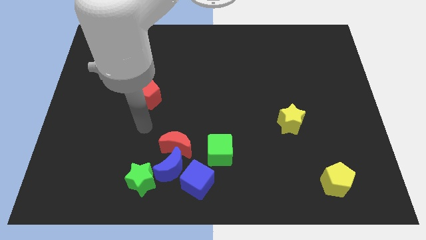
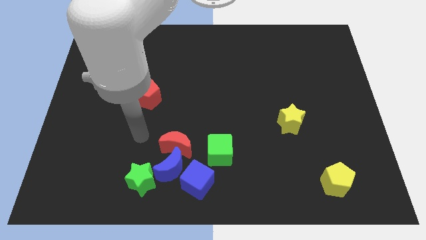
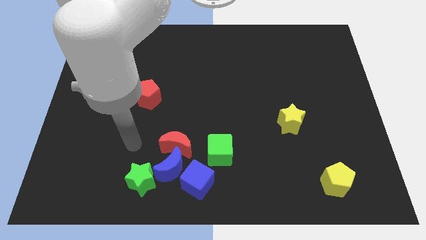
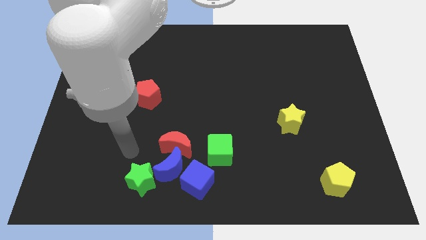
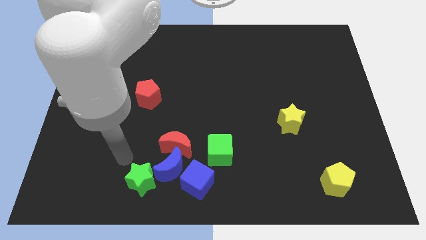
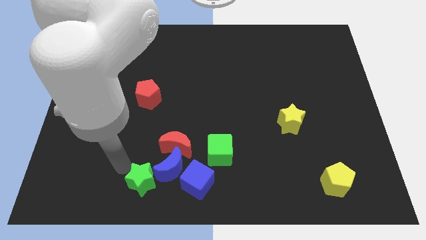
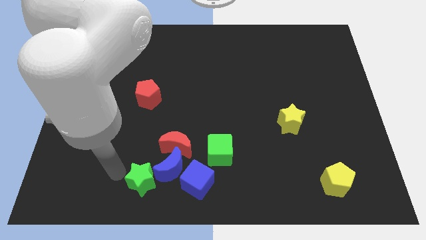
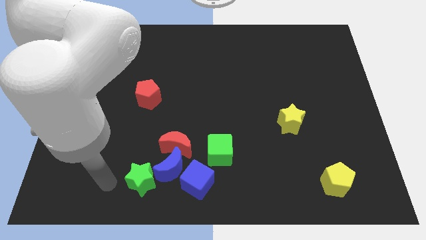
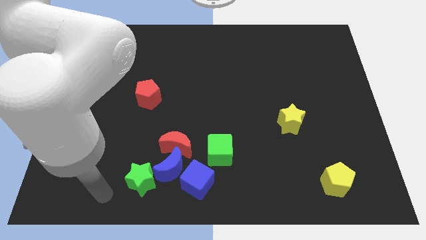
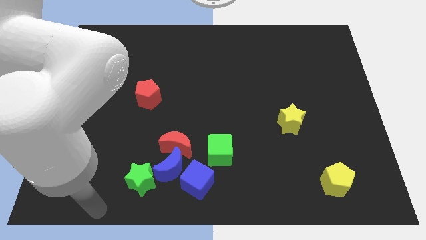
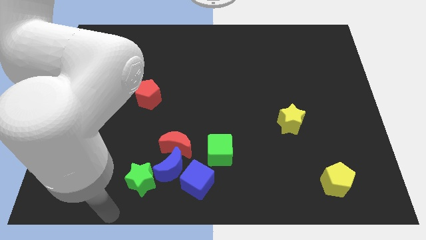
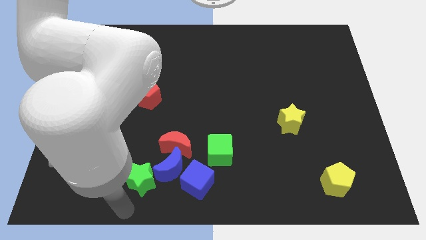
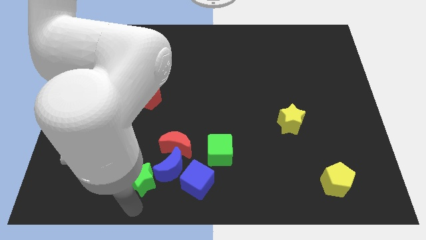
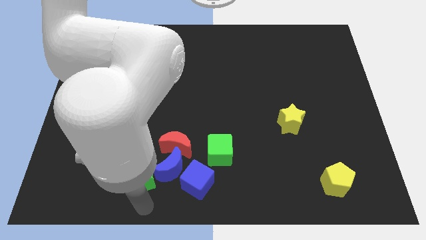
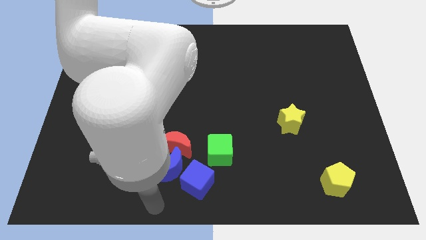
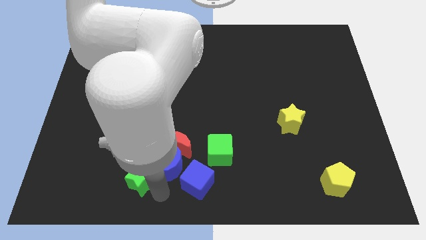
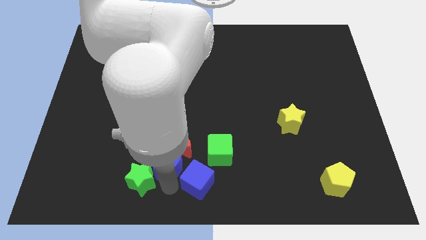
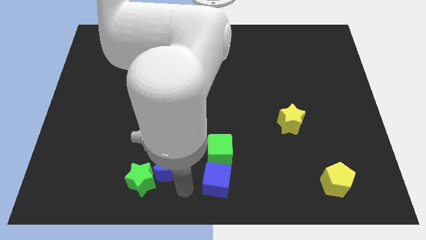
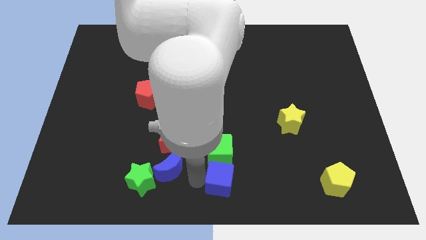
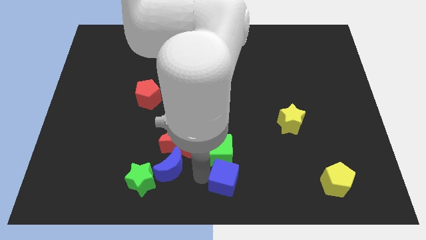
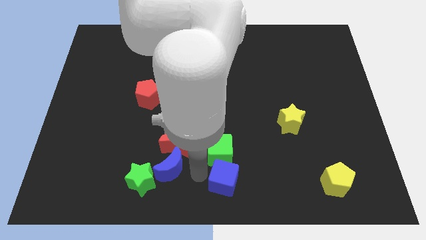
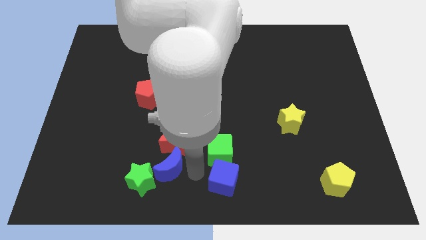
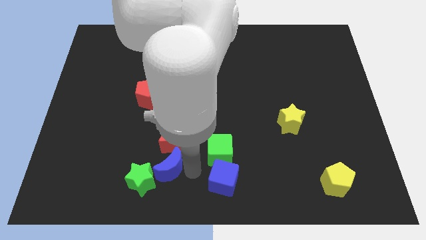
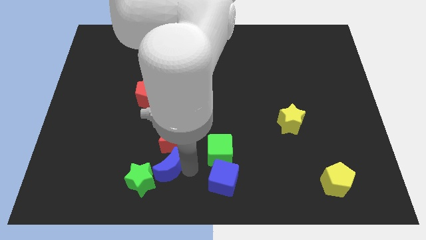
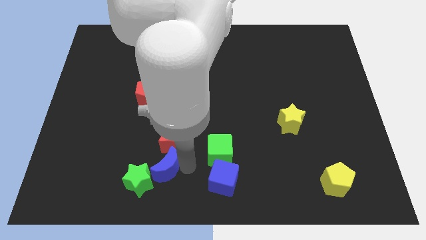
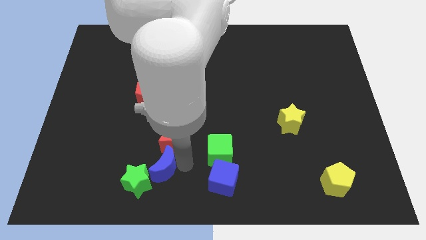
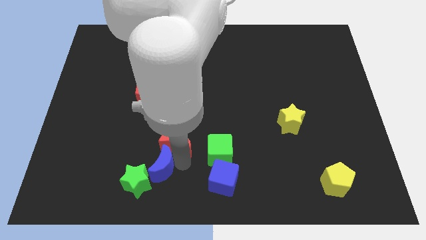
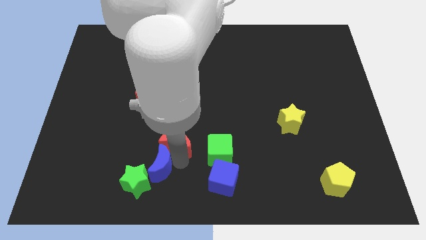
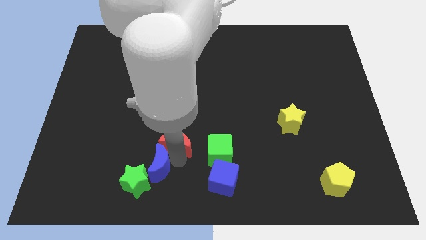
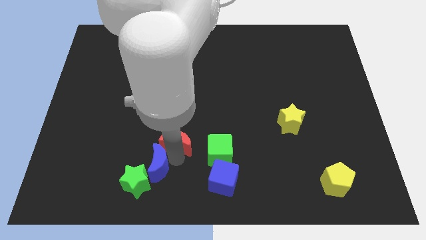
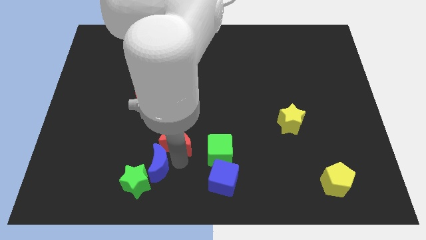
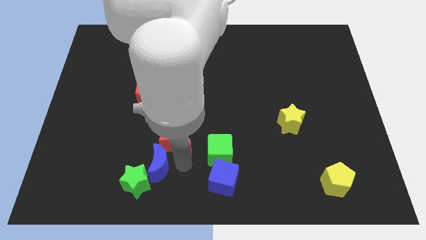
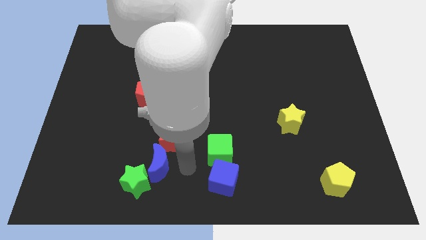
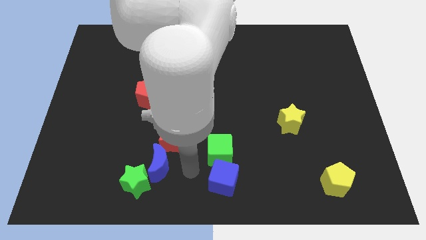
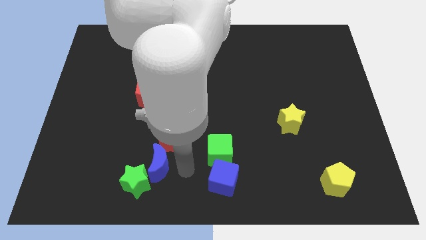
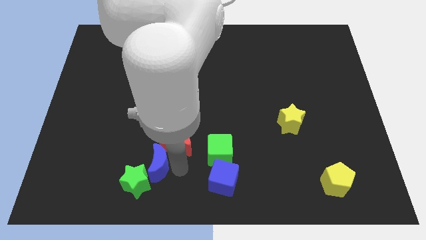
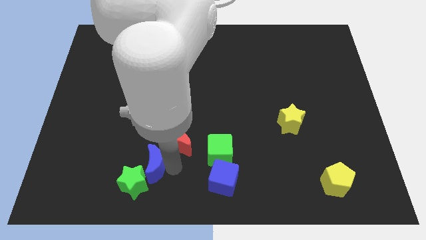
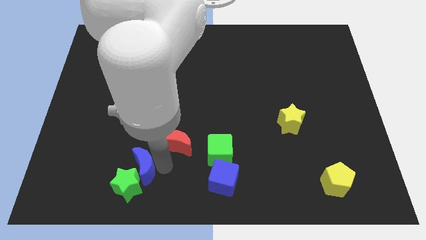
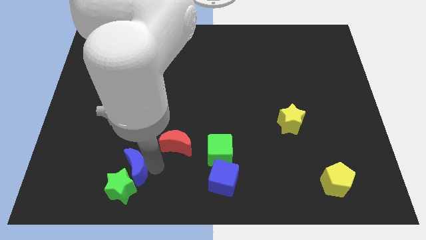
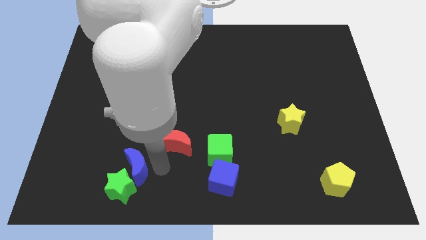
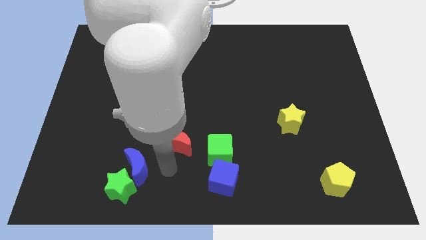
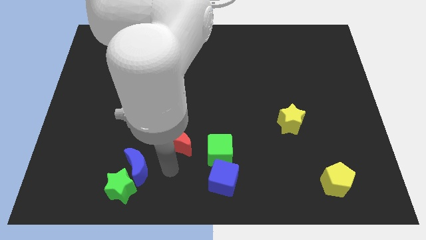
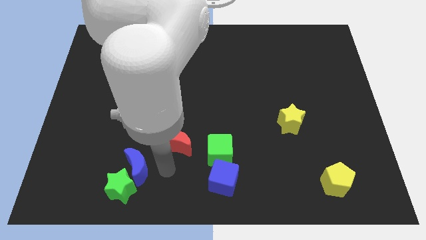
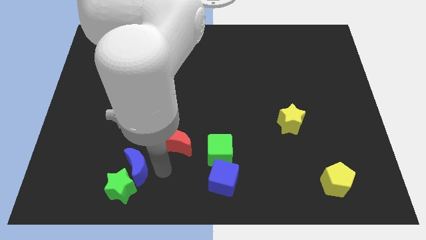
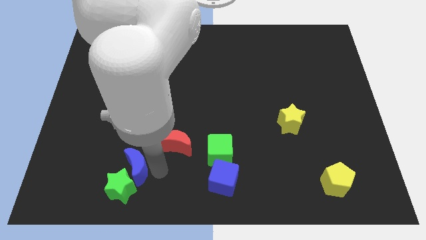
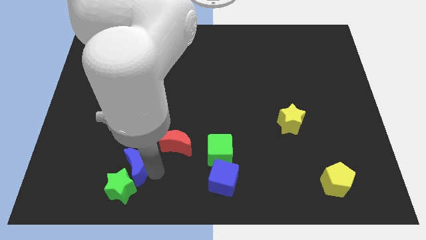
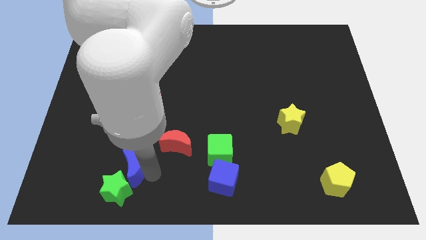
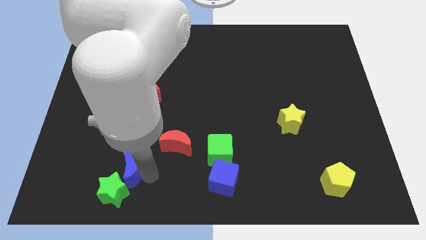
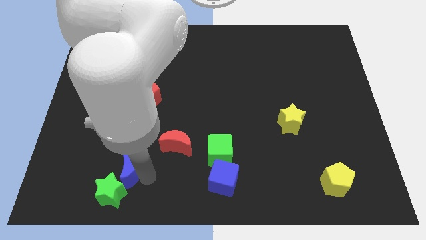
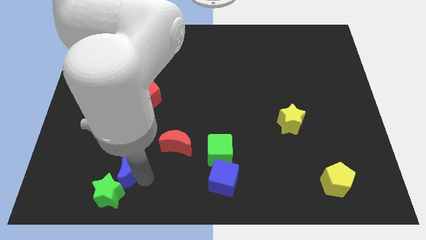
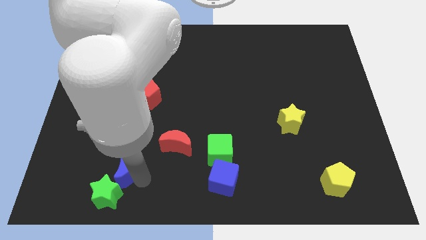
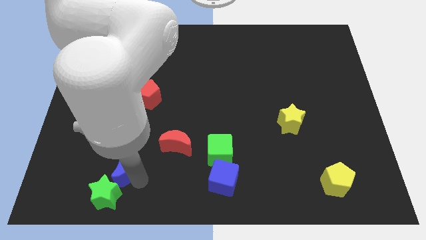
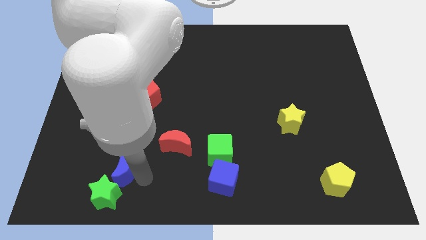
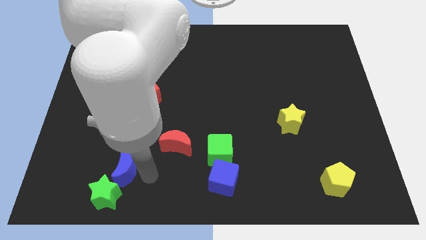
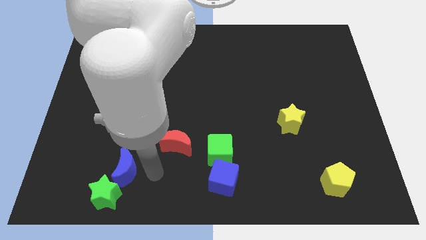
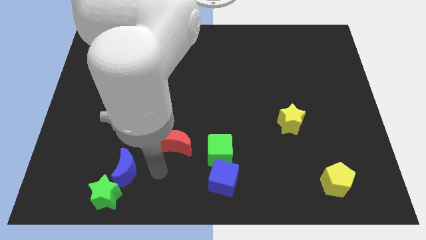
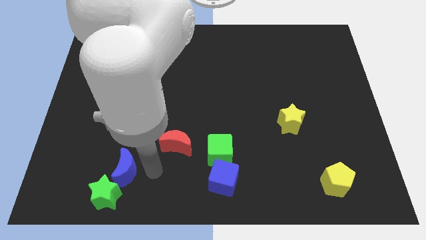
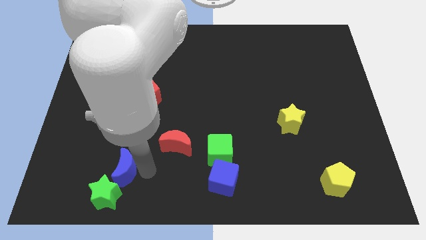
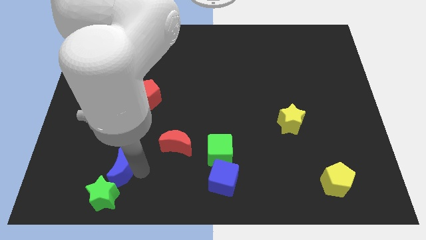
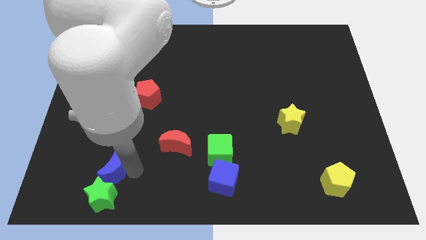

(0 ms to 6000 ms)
move the blue moon away from the red moon, blue cube, and green star

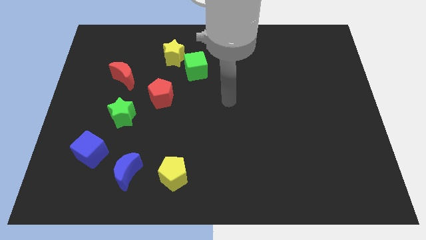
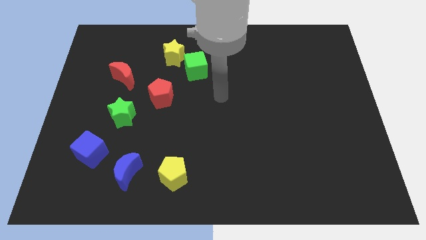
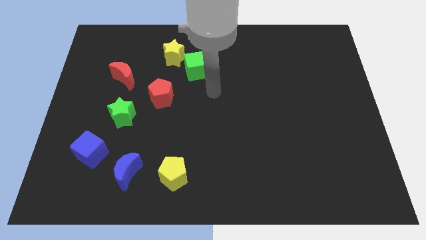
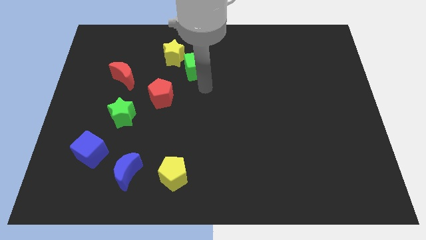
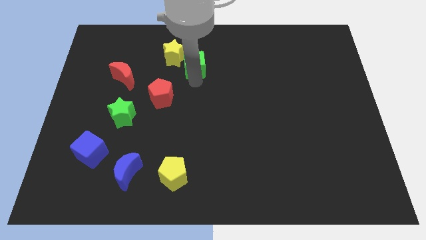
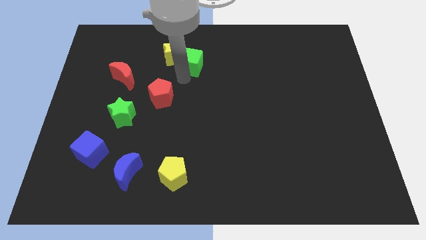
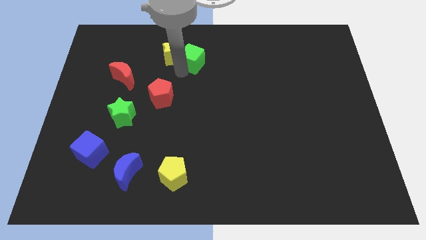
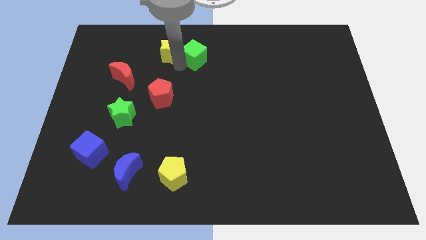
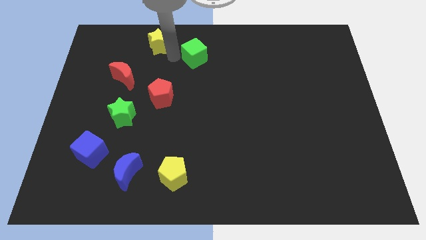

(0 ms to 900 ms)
move the green cube away from the yellow star

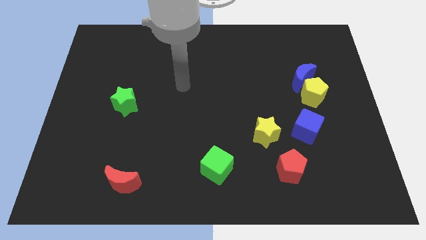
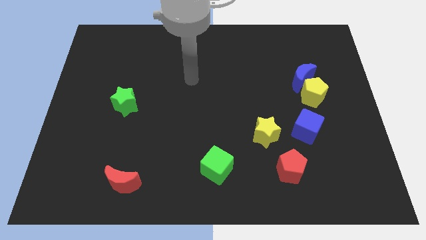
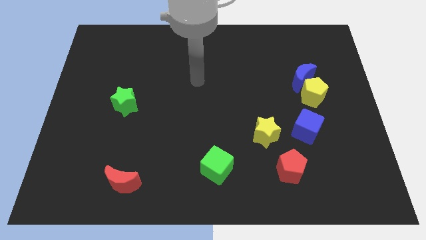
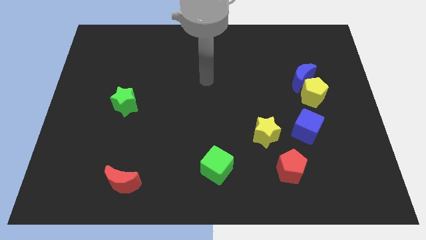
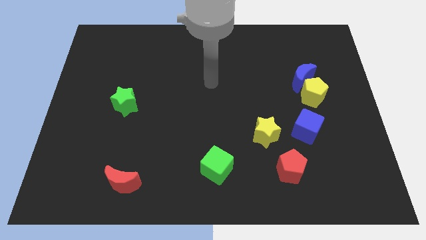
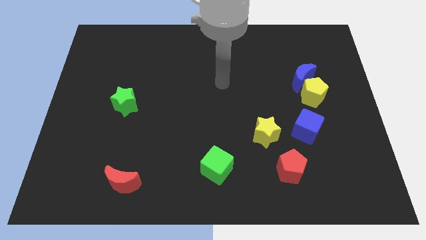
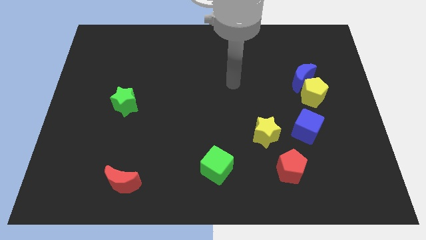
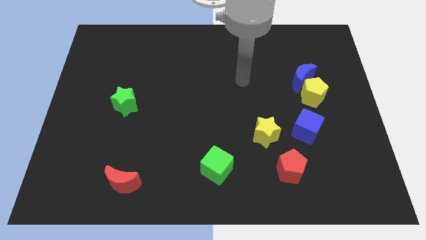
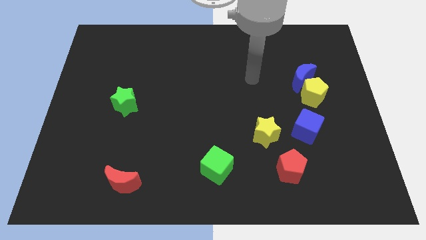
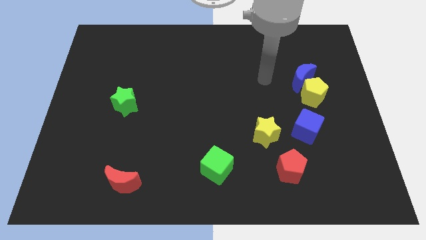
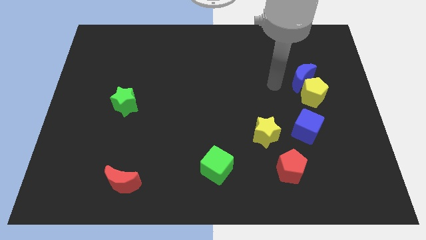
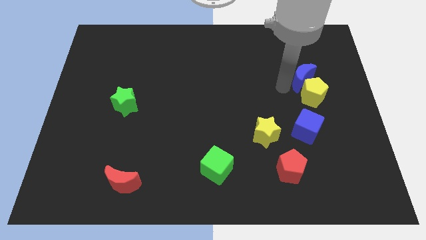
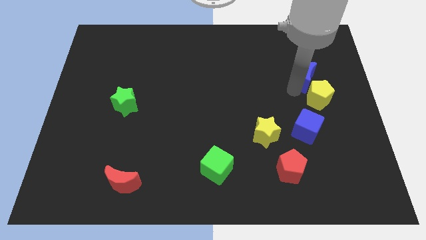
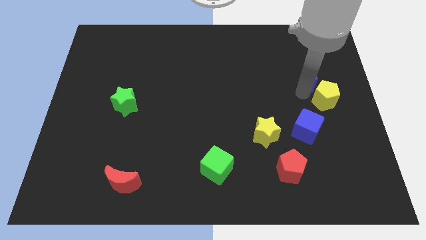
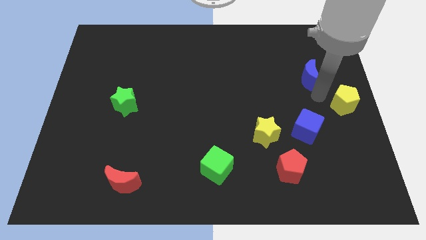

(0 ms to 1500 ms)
move the blue moon away from the yellow pentagon

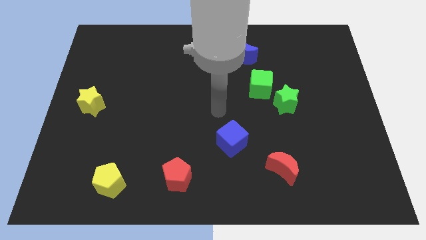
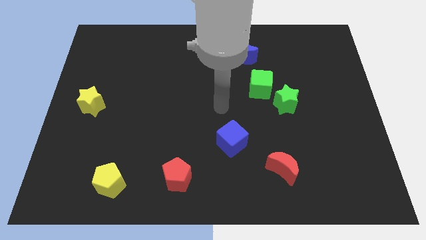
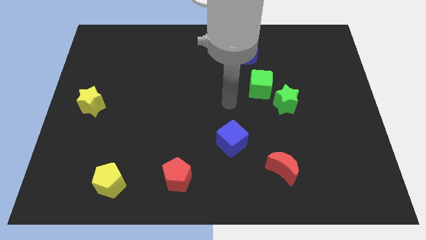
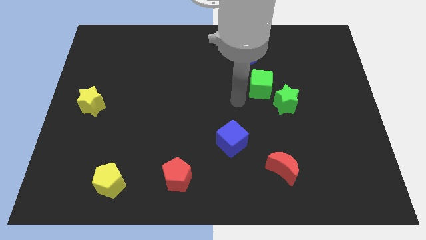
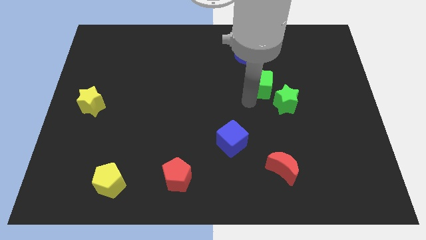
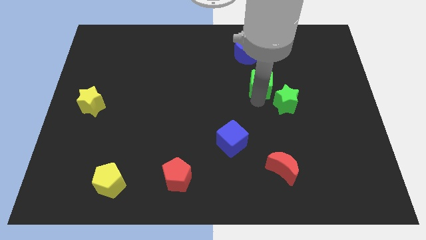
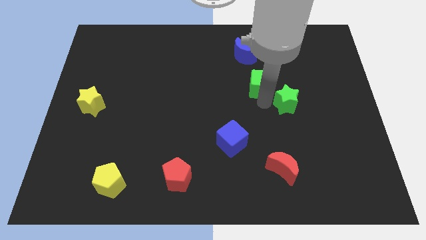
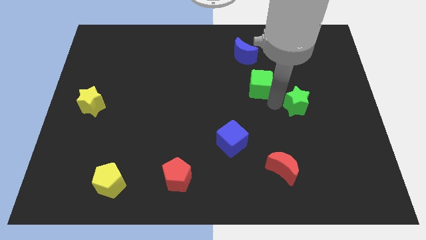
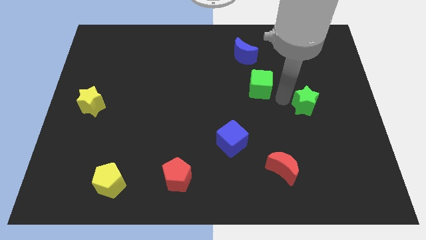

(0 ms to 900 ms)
move the green cube away from the green star
